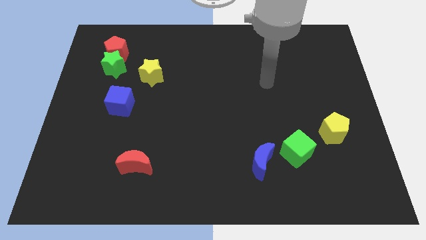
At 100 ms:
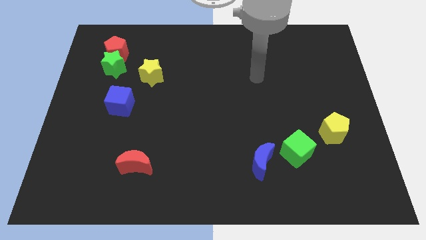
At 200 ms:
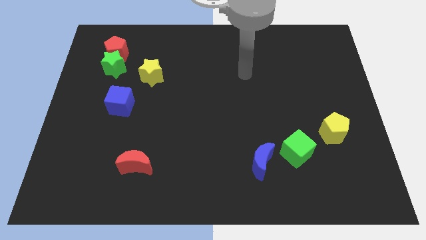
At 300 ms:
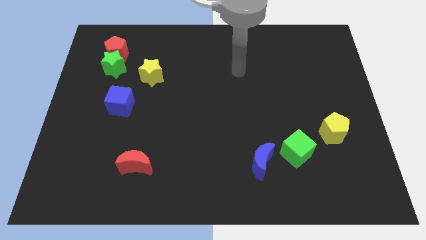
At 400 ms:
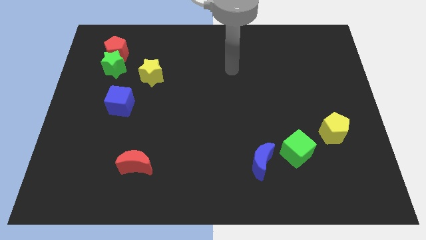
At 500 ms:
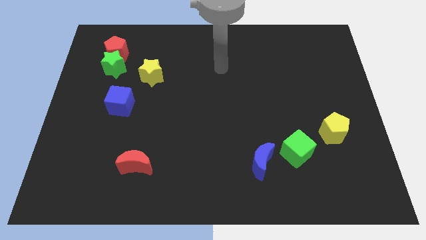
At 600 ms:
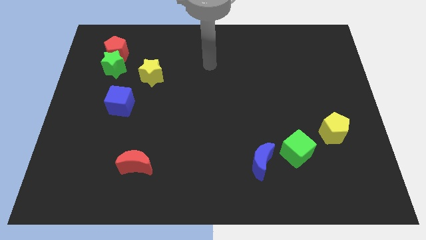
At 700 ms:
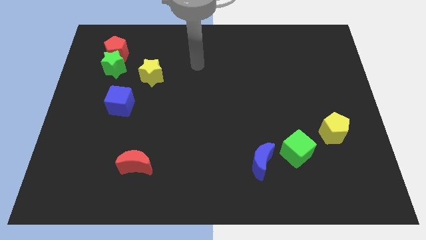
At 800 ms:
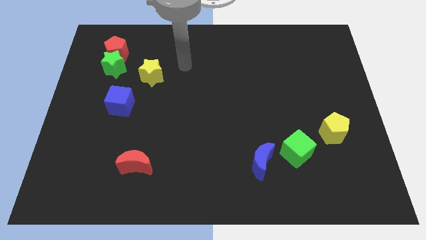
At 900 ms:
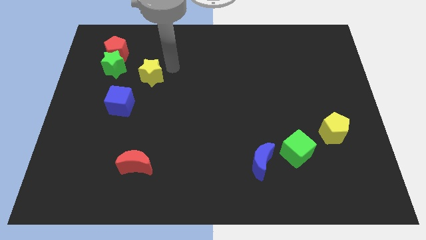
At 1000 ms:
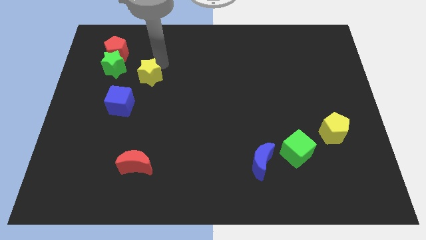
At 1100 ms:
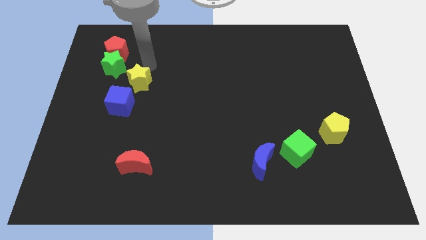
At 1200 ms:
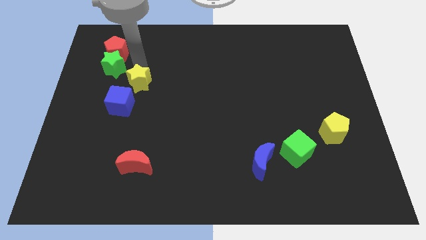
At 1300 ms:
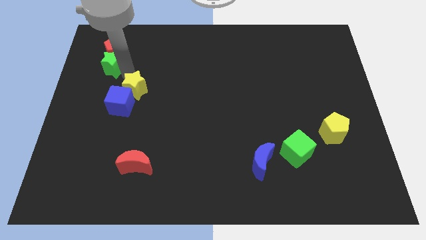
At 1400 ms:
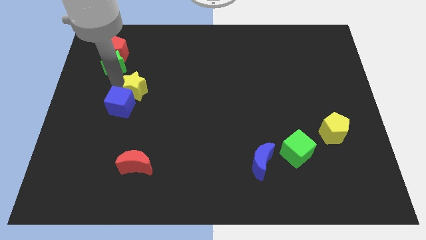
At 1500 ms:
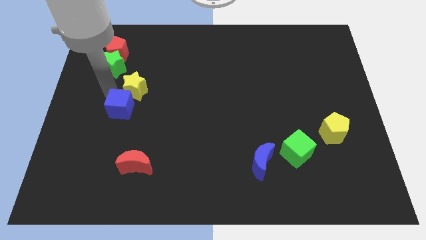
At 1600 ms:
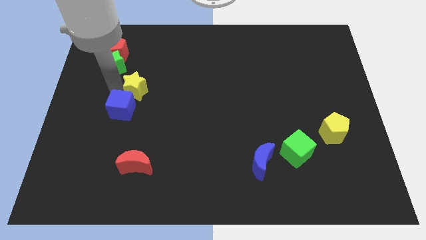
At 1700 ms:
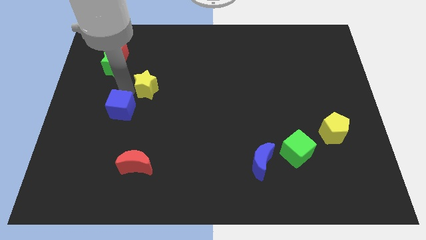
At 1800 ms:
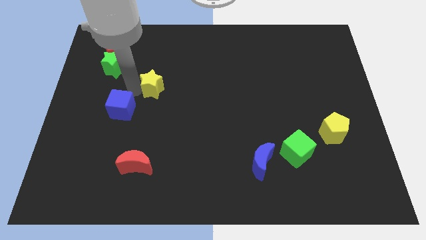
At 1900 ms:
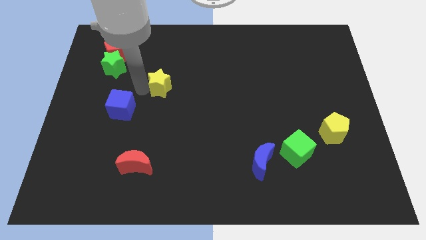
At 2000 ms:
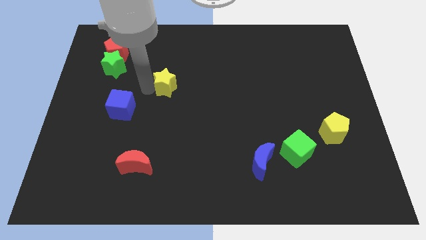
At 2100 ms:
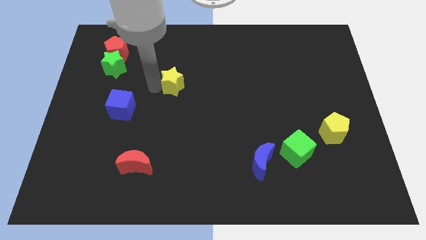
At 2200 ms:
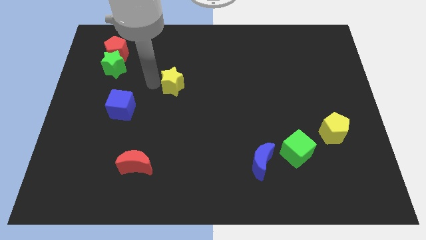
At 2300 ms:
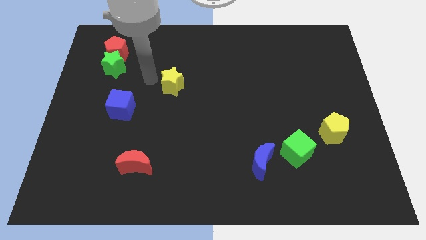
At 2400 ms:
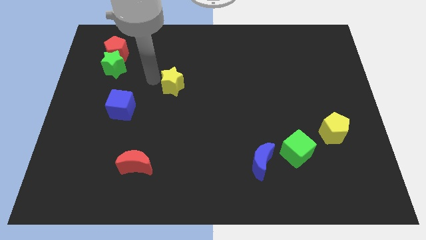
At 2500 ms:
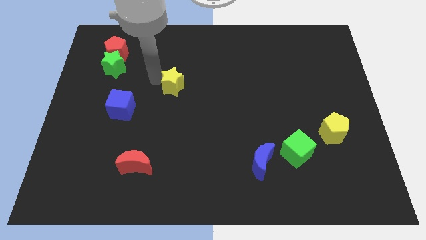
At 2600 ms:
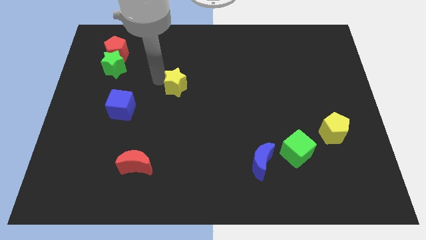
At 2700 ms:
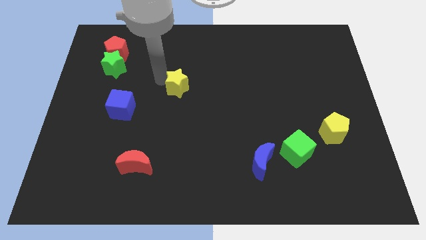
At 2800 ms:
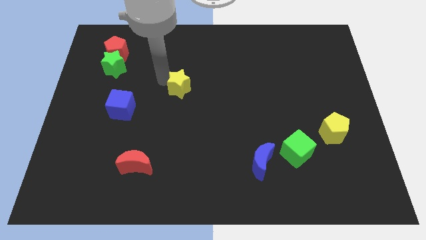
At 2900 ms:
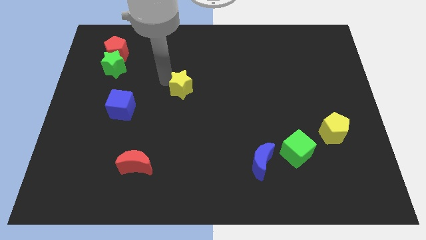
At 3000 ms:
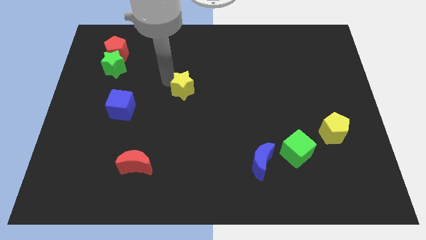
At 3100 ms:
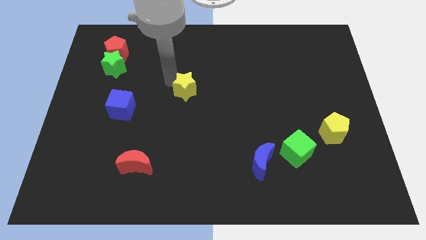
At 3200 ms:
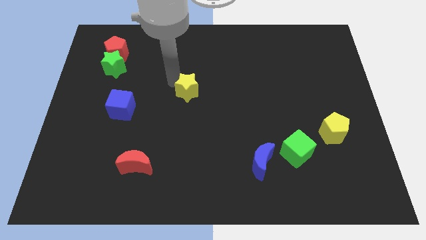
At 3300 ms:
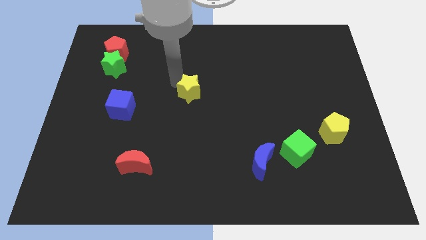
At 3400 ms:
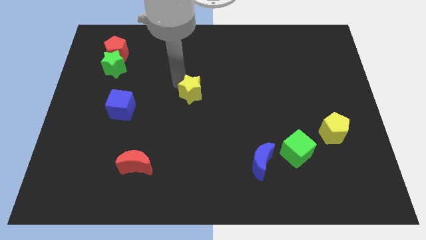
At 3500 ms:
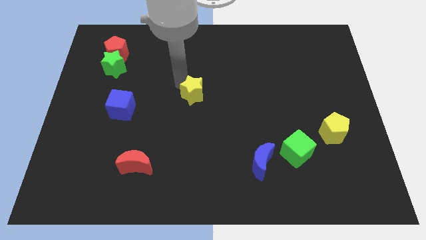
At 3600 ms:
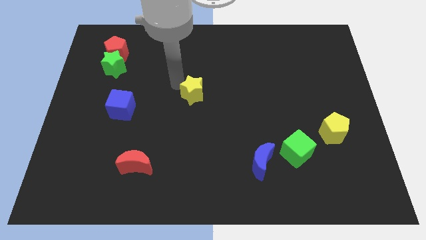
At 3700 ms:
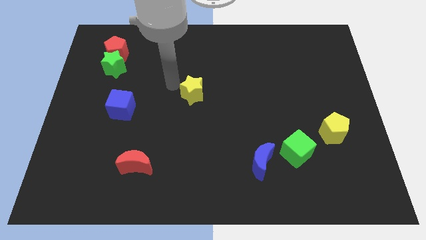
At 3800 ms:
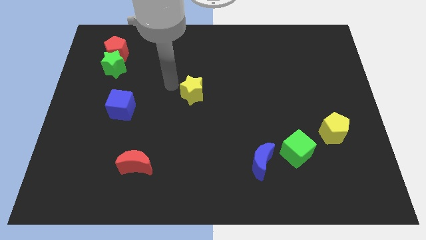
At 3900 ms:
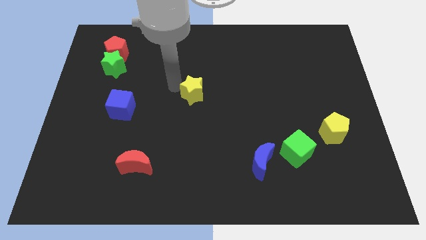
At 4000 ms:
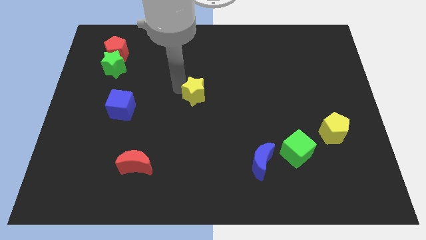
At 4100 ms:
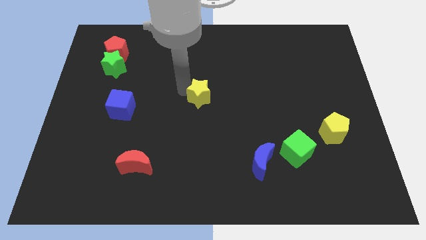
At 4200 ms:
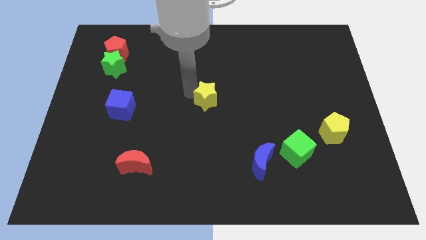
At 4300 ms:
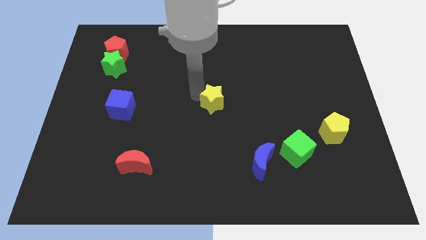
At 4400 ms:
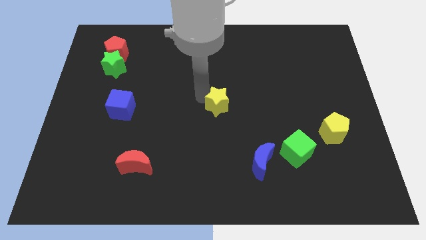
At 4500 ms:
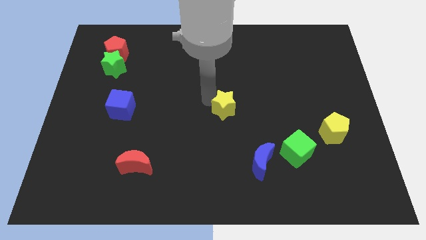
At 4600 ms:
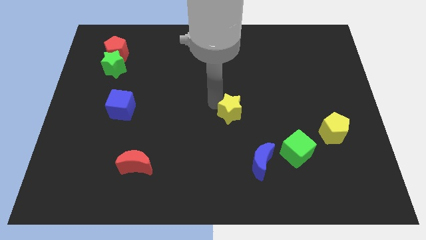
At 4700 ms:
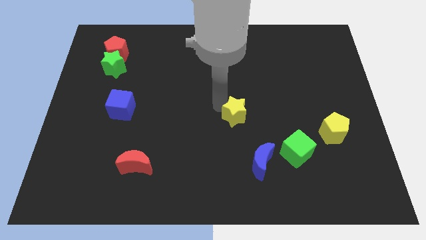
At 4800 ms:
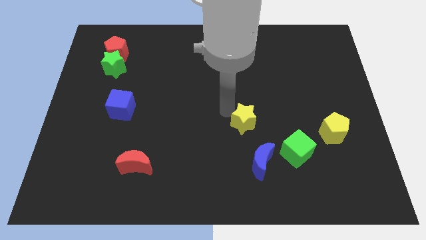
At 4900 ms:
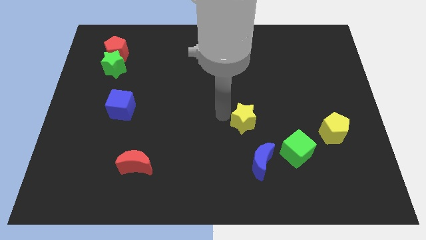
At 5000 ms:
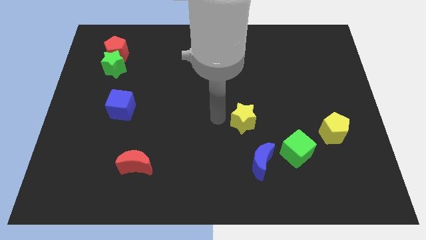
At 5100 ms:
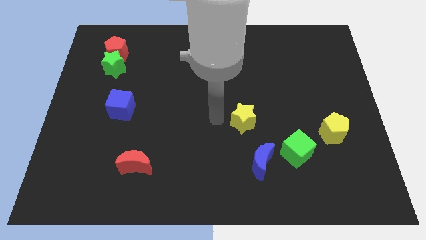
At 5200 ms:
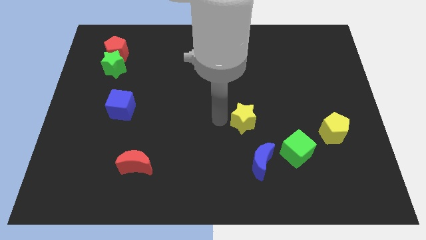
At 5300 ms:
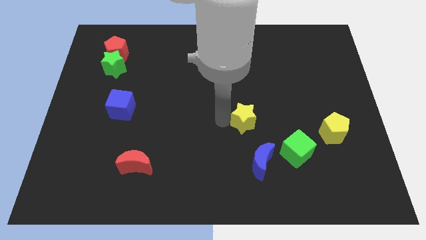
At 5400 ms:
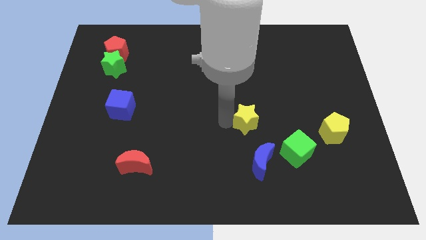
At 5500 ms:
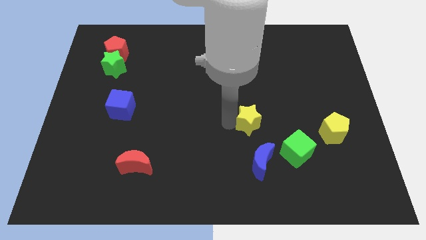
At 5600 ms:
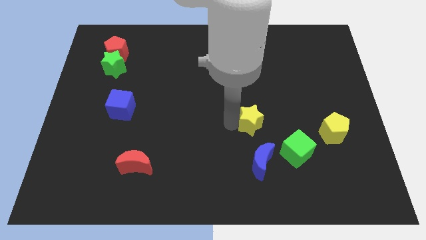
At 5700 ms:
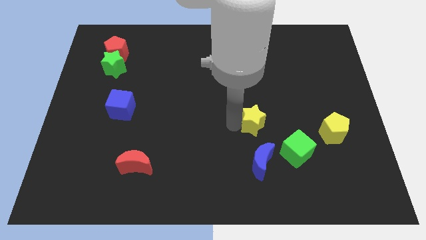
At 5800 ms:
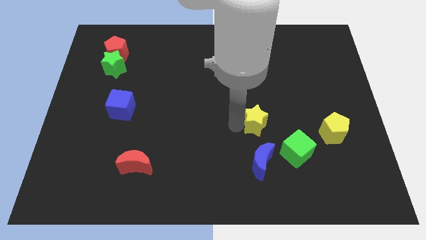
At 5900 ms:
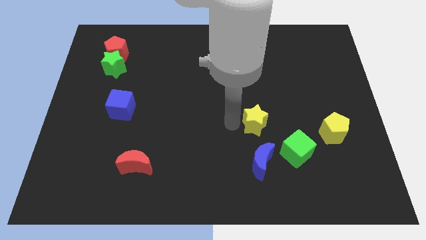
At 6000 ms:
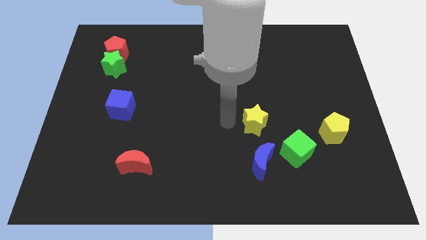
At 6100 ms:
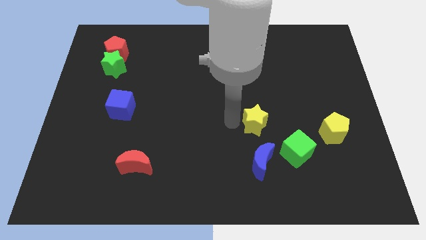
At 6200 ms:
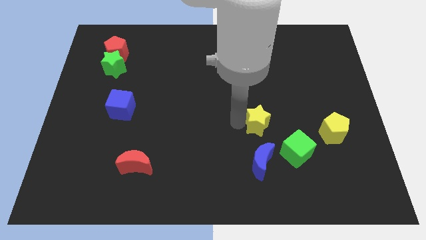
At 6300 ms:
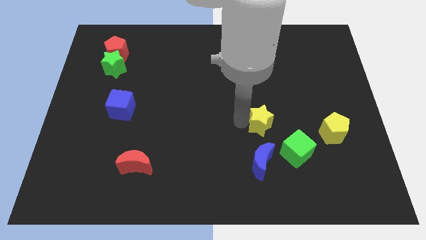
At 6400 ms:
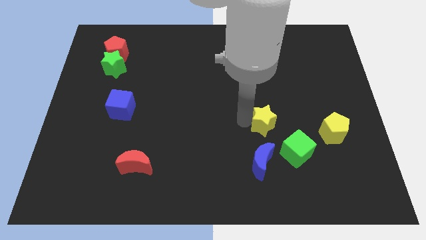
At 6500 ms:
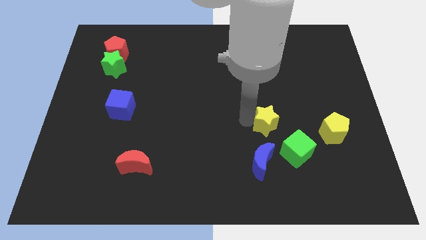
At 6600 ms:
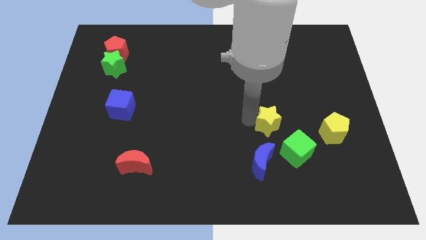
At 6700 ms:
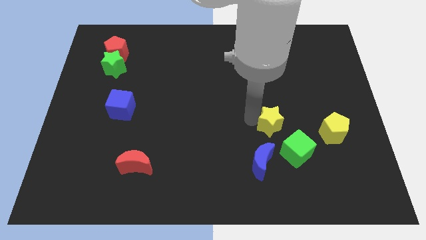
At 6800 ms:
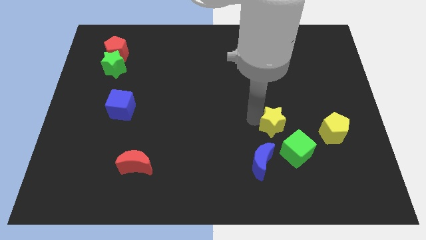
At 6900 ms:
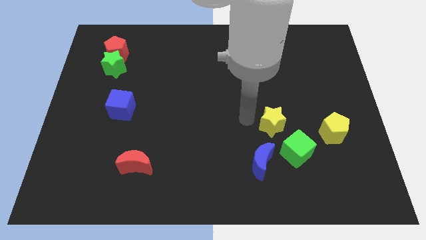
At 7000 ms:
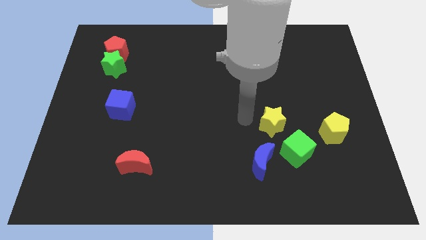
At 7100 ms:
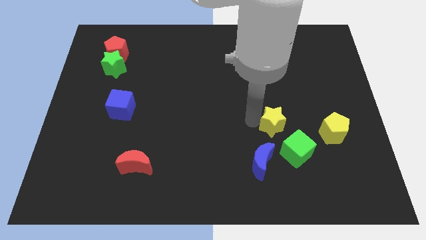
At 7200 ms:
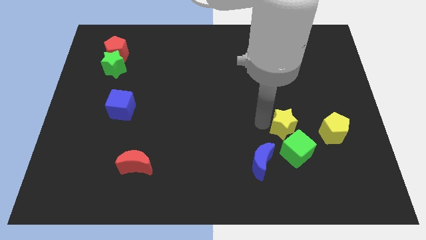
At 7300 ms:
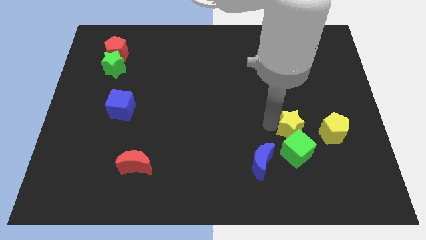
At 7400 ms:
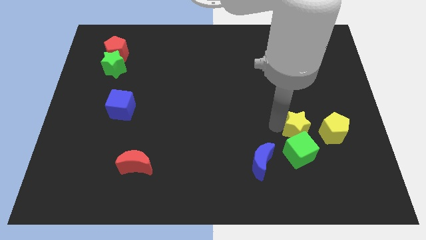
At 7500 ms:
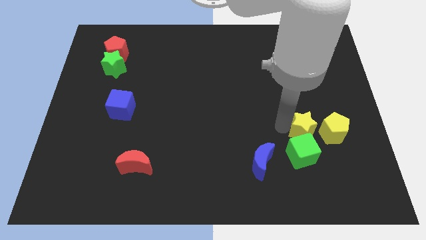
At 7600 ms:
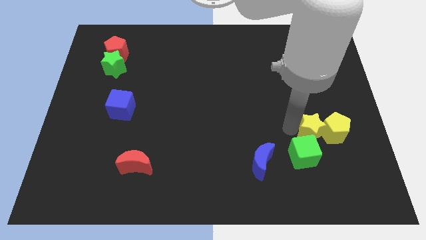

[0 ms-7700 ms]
put the yellow star towards the yellow pentagon
